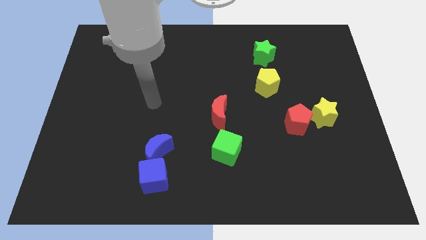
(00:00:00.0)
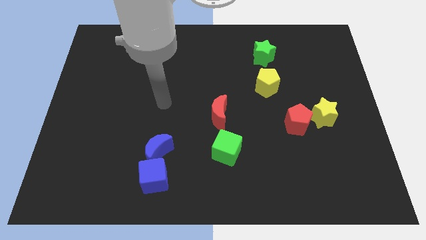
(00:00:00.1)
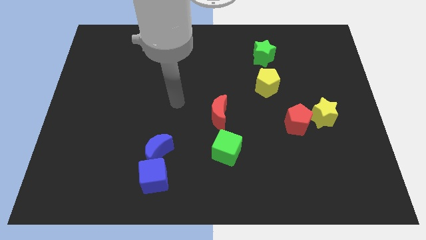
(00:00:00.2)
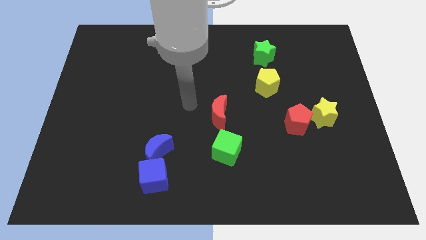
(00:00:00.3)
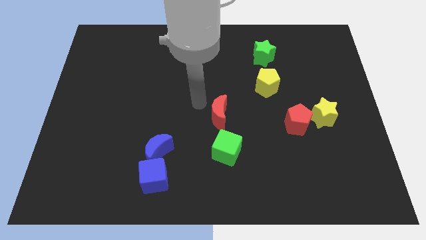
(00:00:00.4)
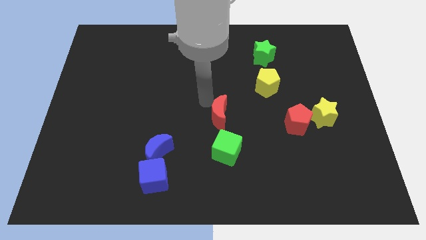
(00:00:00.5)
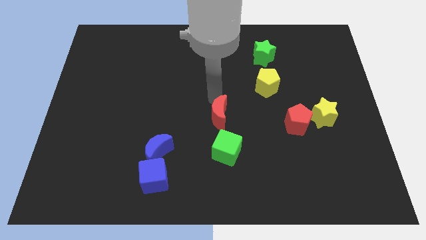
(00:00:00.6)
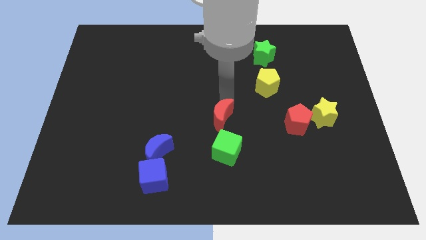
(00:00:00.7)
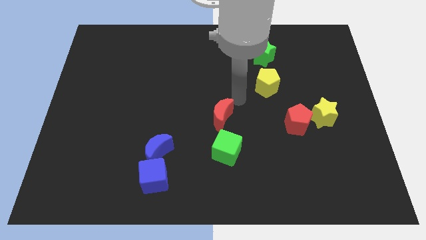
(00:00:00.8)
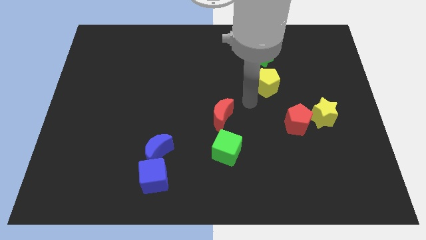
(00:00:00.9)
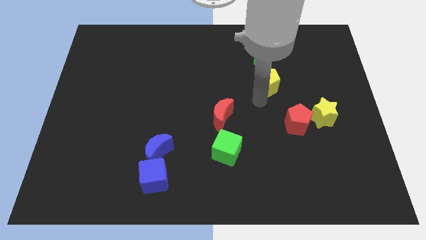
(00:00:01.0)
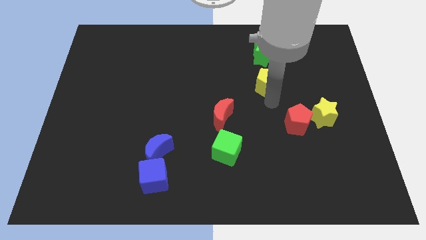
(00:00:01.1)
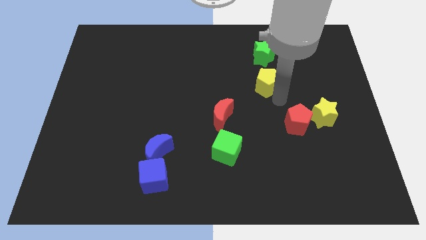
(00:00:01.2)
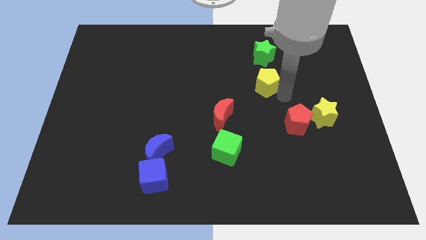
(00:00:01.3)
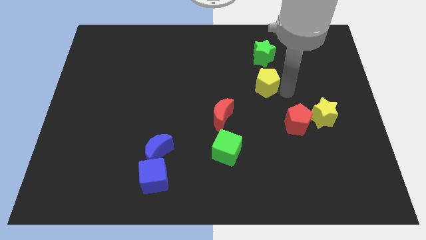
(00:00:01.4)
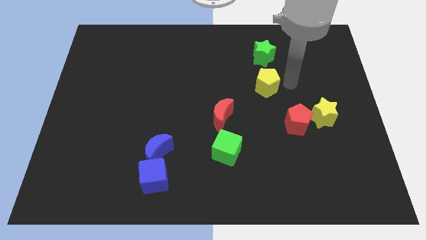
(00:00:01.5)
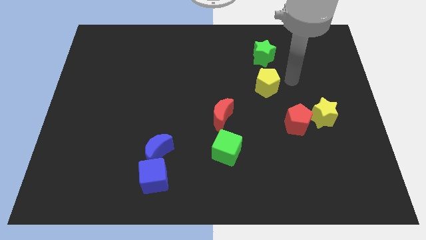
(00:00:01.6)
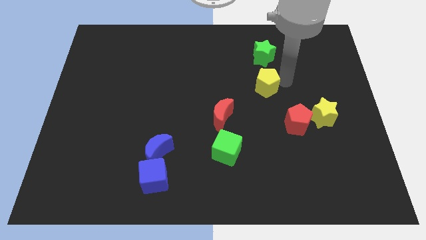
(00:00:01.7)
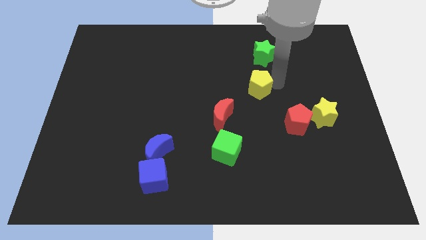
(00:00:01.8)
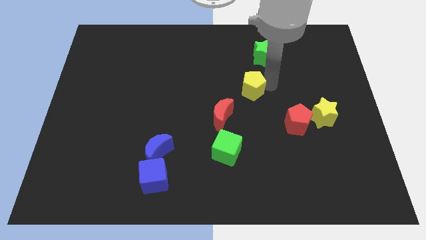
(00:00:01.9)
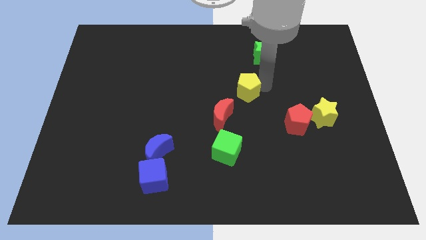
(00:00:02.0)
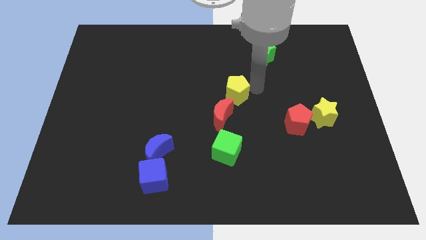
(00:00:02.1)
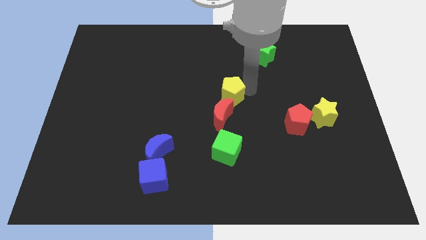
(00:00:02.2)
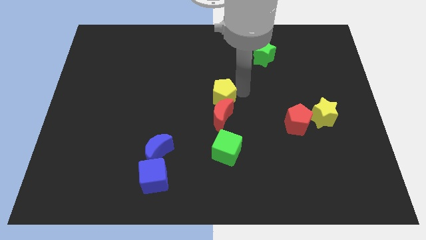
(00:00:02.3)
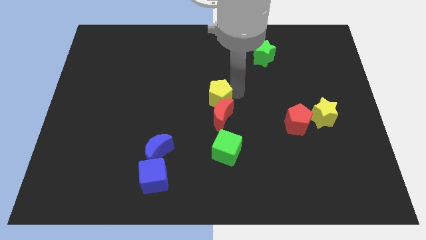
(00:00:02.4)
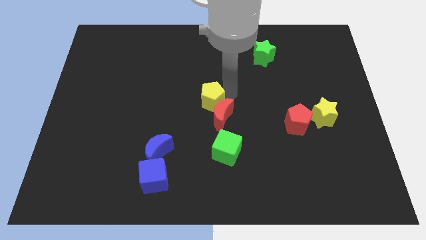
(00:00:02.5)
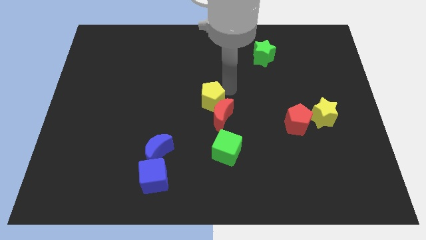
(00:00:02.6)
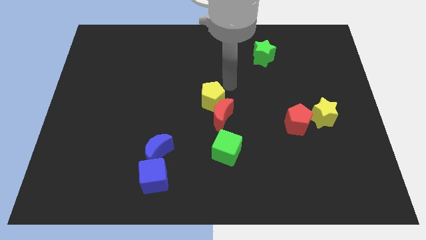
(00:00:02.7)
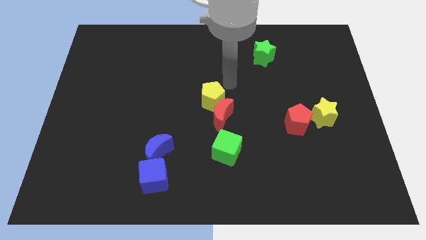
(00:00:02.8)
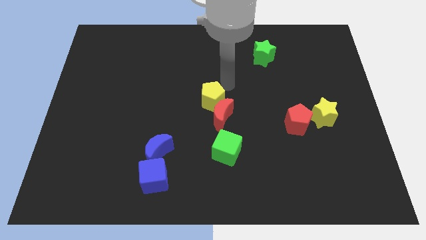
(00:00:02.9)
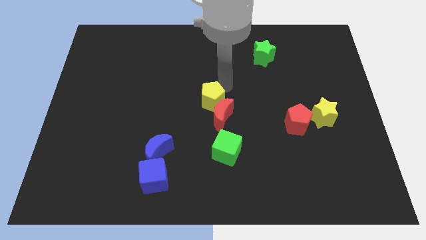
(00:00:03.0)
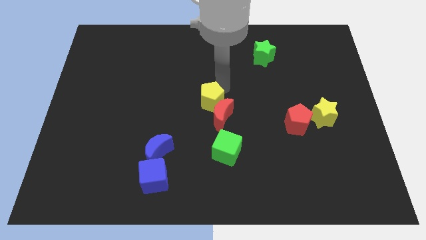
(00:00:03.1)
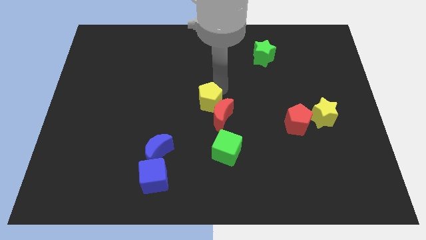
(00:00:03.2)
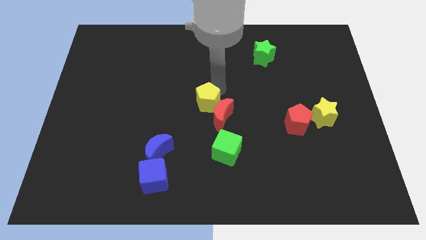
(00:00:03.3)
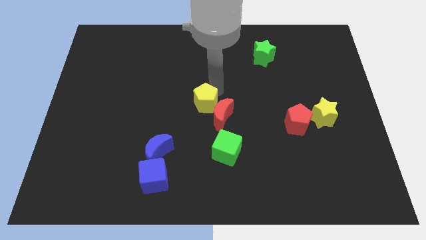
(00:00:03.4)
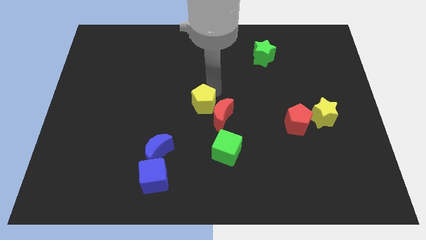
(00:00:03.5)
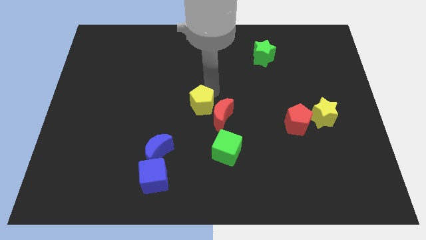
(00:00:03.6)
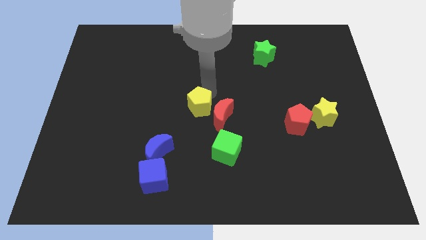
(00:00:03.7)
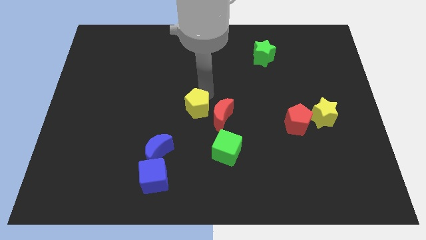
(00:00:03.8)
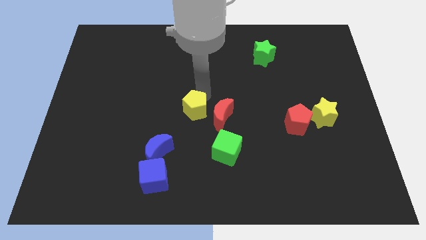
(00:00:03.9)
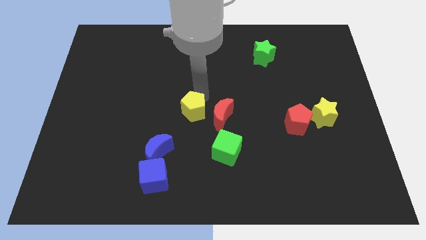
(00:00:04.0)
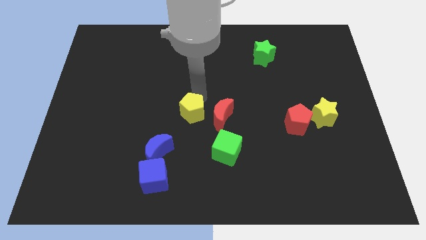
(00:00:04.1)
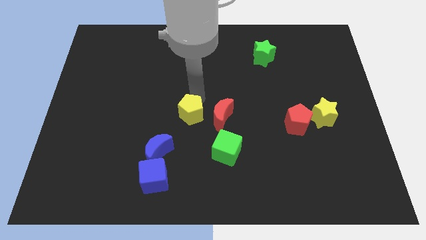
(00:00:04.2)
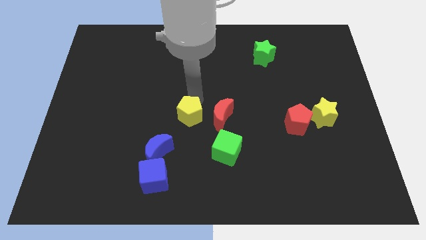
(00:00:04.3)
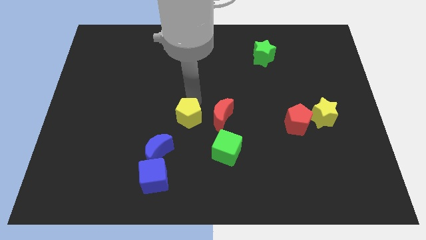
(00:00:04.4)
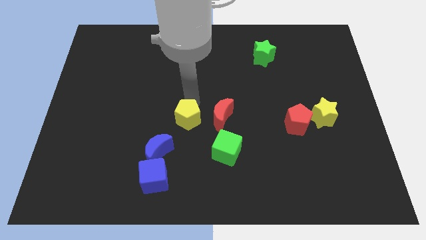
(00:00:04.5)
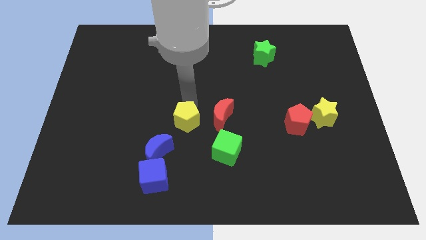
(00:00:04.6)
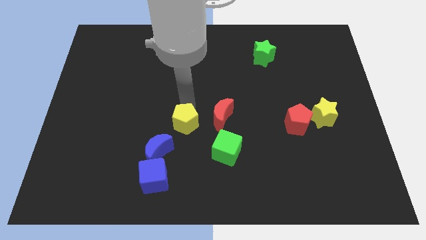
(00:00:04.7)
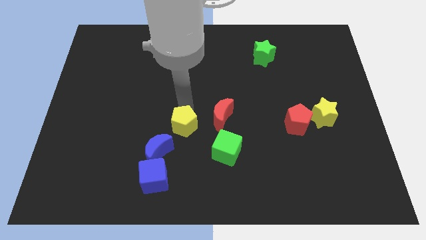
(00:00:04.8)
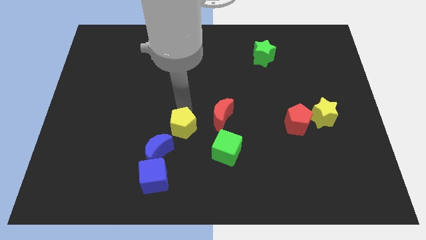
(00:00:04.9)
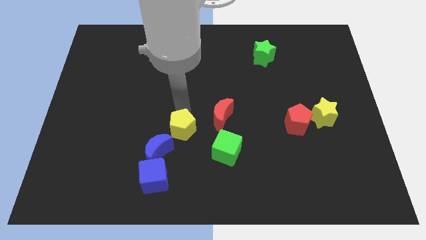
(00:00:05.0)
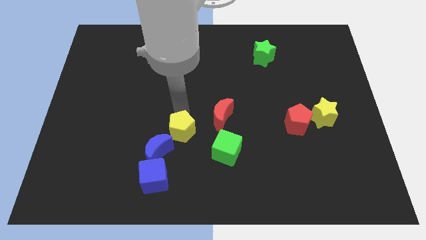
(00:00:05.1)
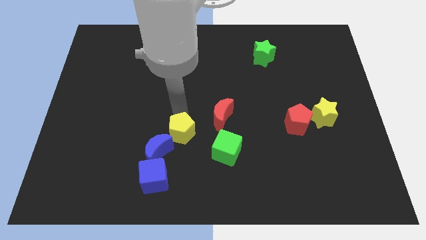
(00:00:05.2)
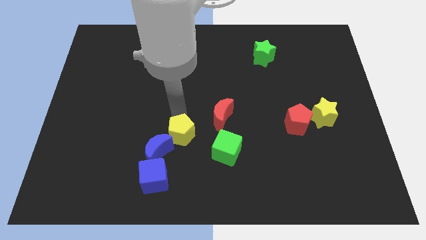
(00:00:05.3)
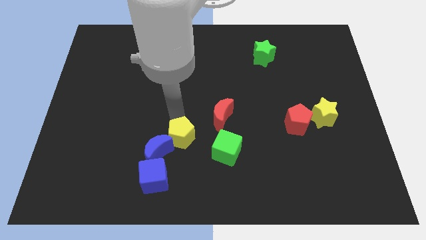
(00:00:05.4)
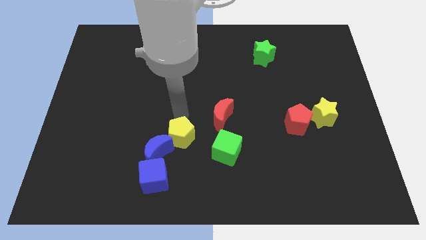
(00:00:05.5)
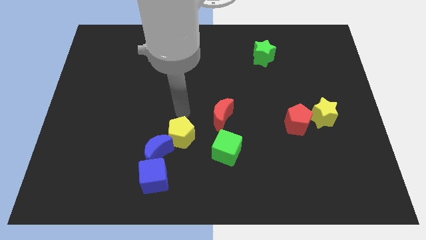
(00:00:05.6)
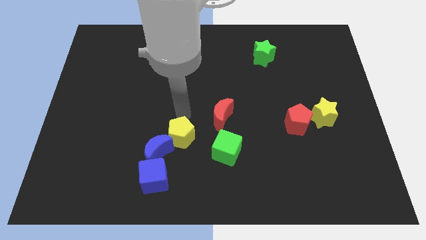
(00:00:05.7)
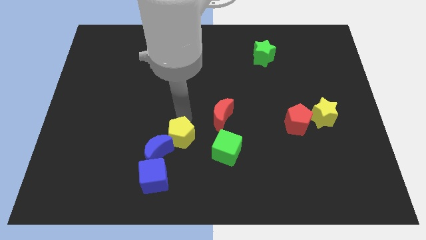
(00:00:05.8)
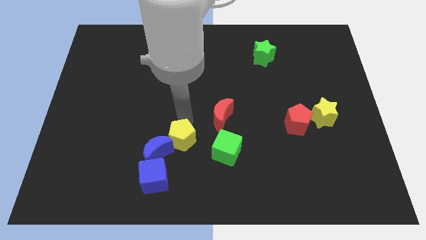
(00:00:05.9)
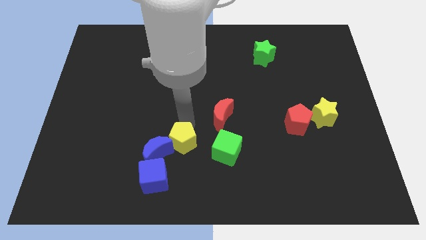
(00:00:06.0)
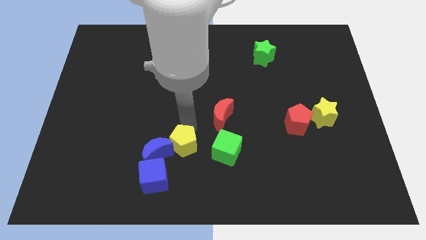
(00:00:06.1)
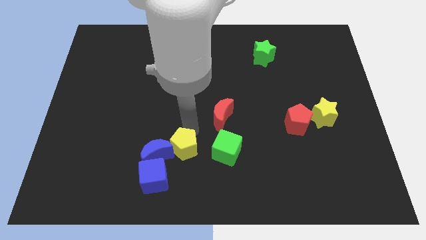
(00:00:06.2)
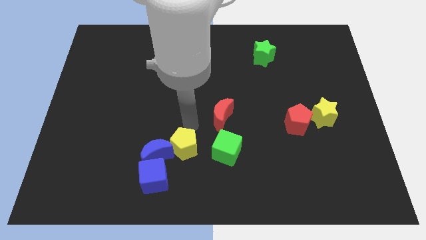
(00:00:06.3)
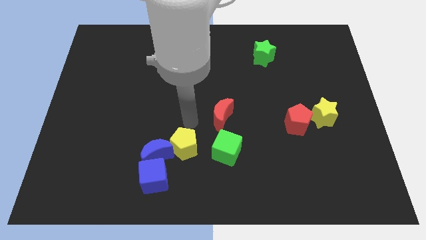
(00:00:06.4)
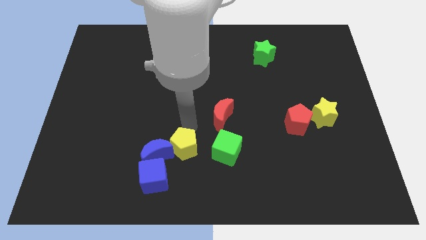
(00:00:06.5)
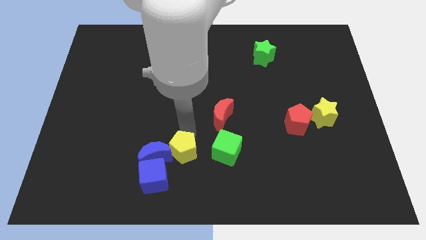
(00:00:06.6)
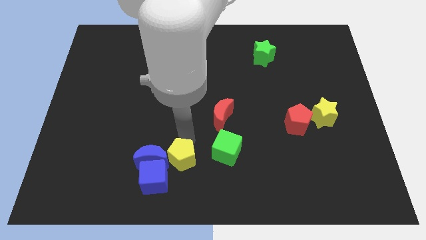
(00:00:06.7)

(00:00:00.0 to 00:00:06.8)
move the yellow pentagon to the bottom right of the blue moon
